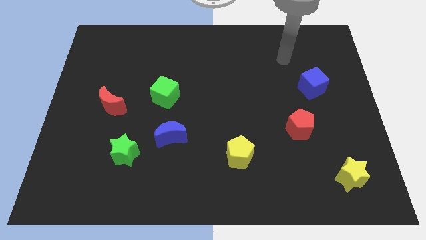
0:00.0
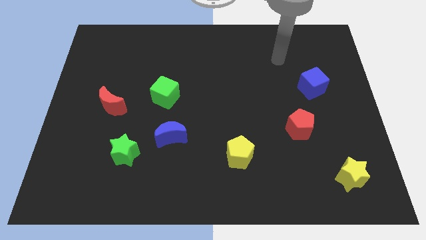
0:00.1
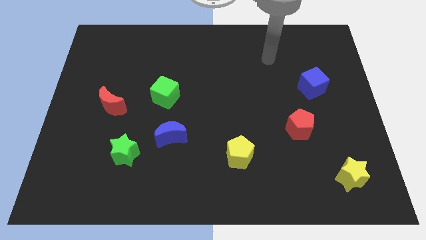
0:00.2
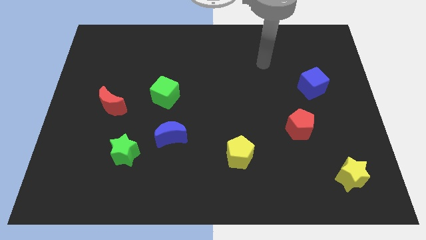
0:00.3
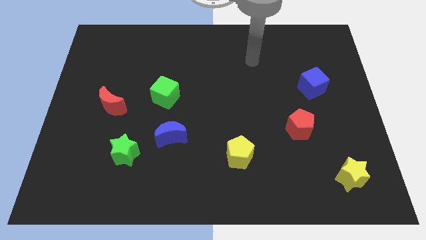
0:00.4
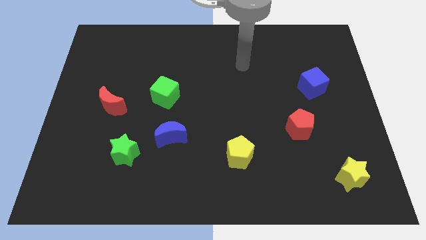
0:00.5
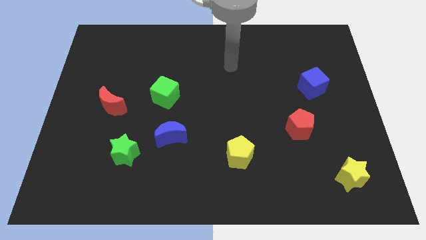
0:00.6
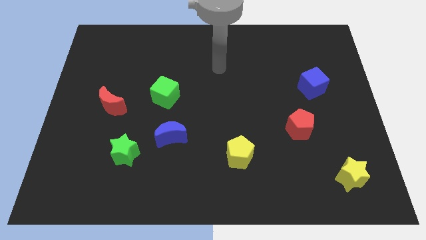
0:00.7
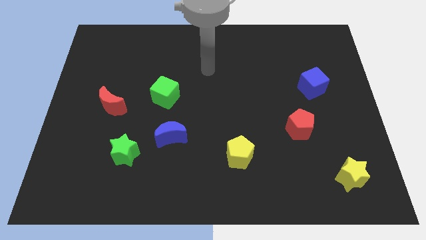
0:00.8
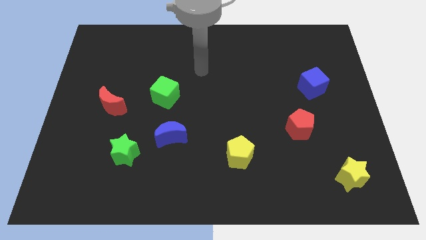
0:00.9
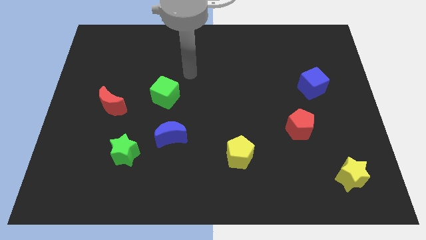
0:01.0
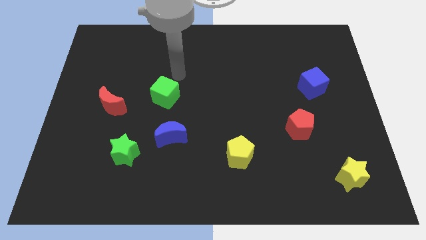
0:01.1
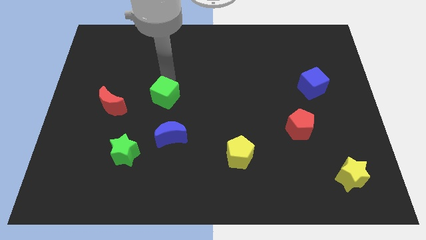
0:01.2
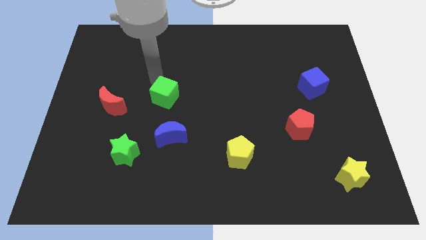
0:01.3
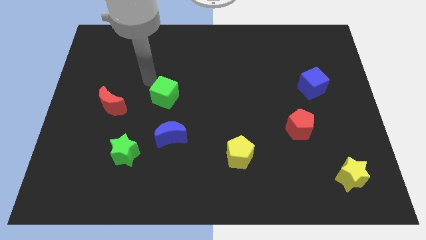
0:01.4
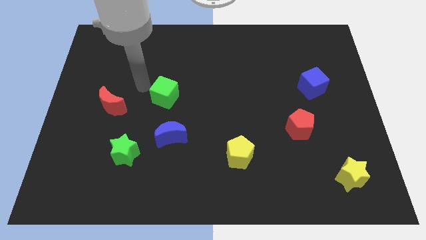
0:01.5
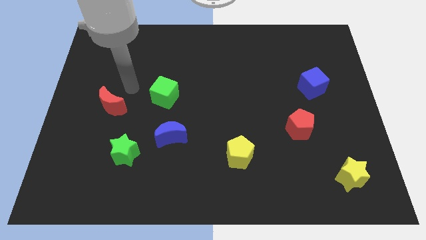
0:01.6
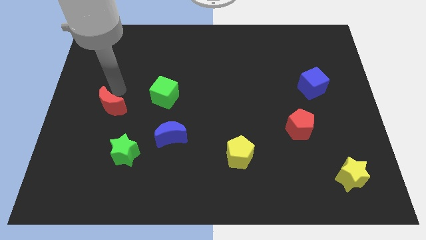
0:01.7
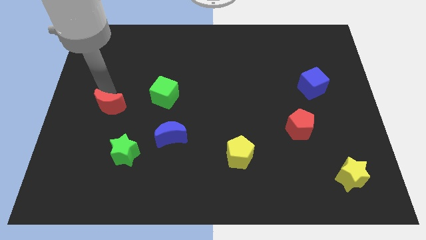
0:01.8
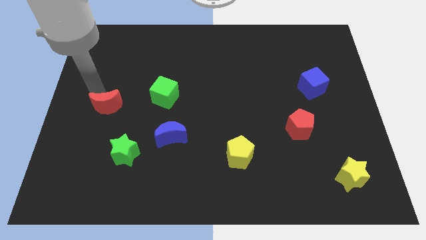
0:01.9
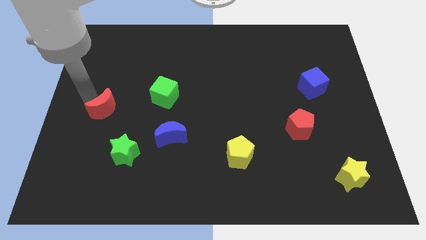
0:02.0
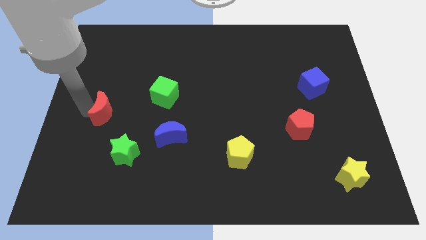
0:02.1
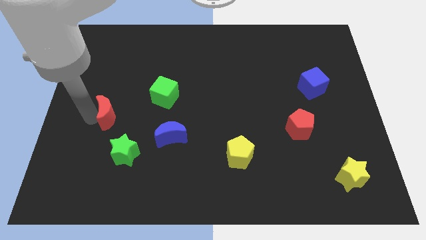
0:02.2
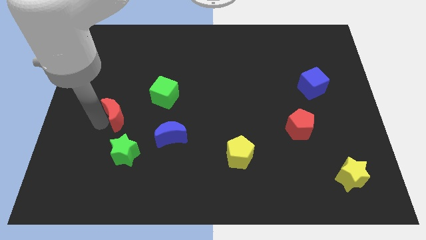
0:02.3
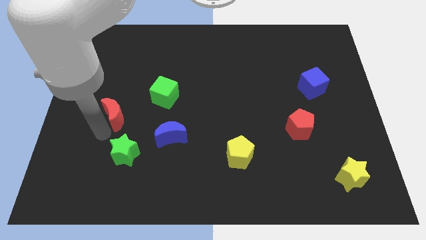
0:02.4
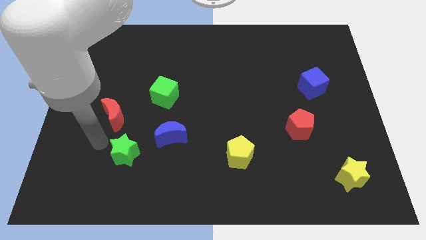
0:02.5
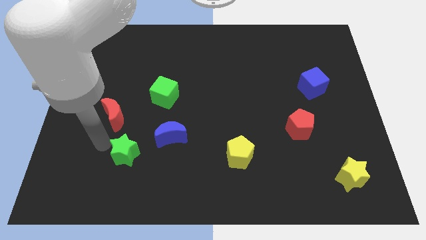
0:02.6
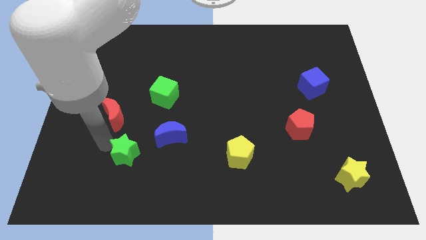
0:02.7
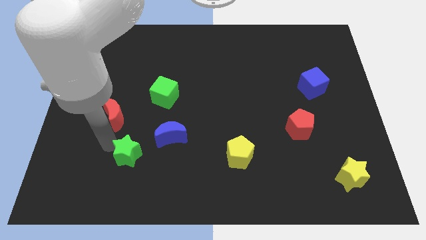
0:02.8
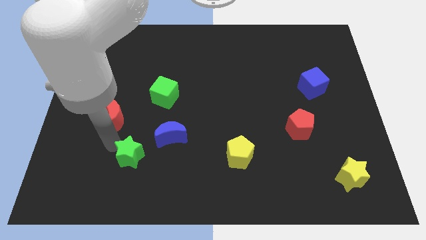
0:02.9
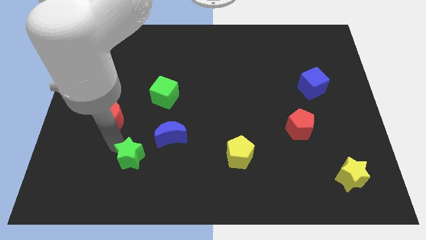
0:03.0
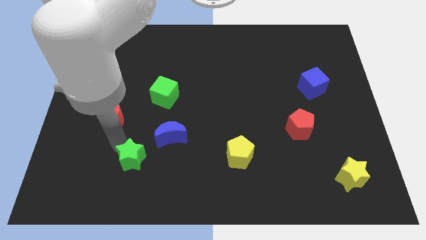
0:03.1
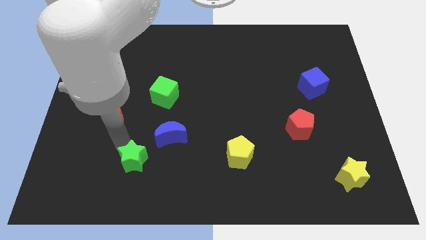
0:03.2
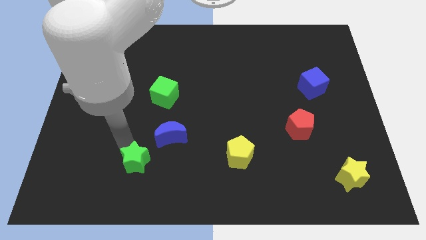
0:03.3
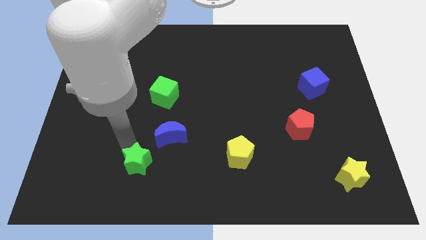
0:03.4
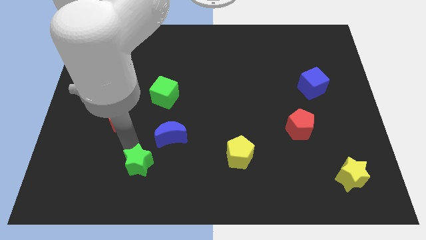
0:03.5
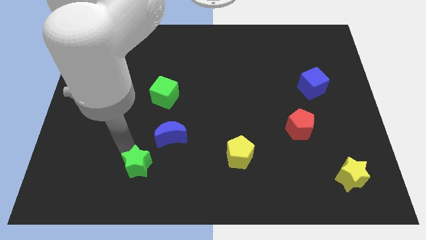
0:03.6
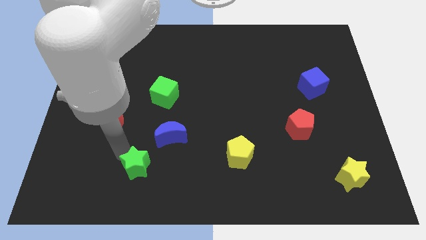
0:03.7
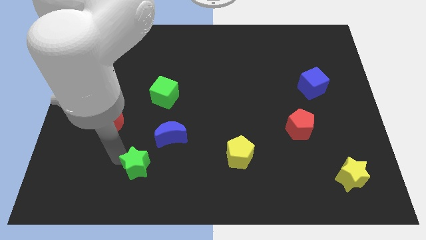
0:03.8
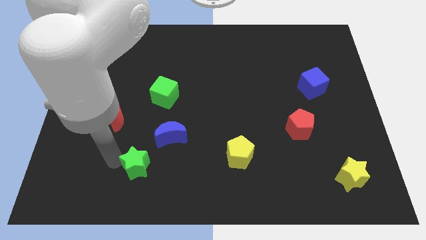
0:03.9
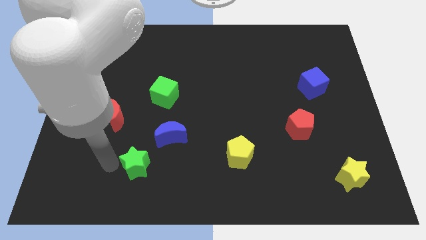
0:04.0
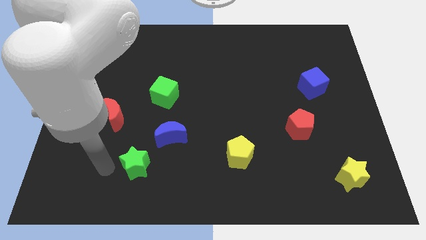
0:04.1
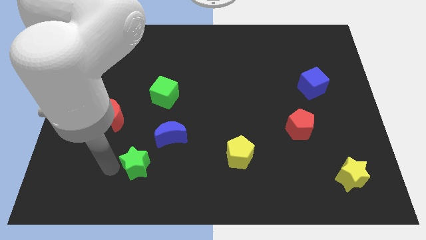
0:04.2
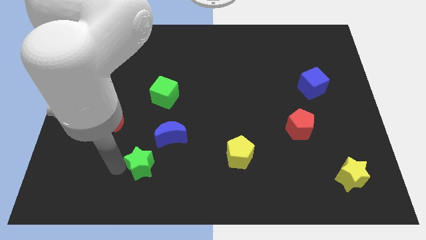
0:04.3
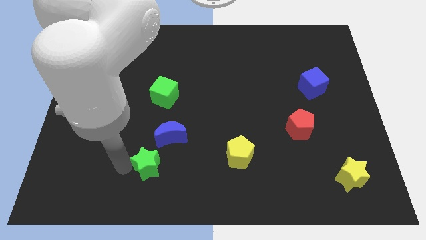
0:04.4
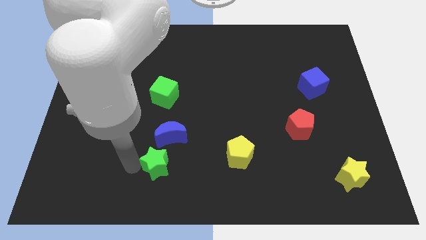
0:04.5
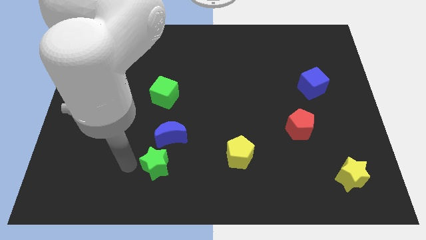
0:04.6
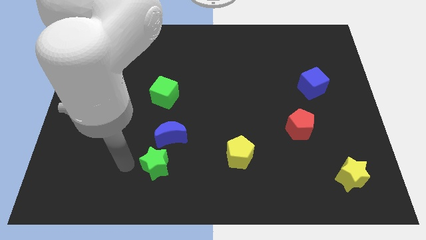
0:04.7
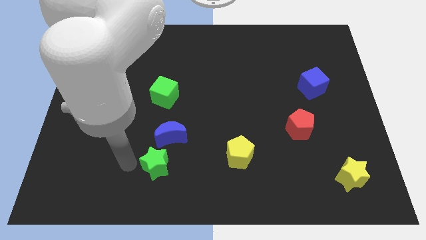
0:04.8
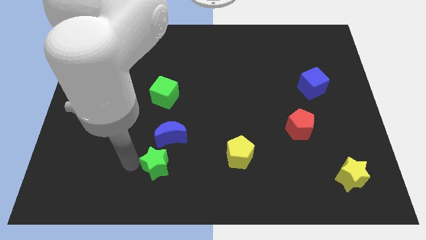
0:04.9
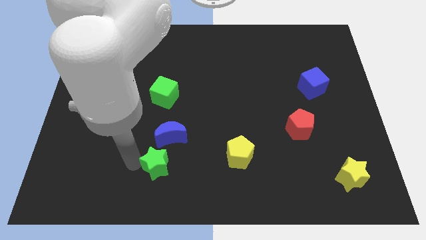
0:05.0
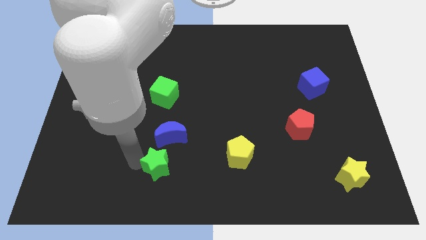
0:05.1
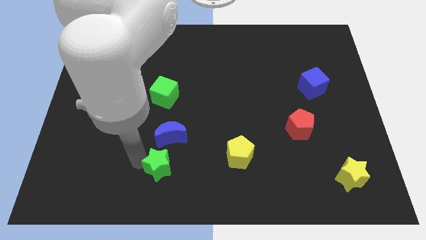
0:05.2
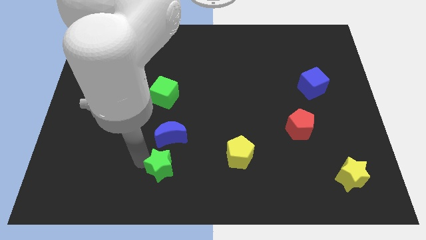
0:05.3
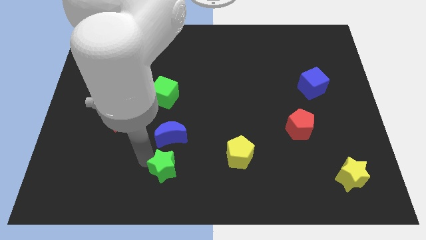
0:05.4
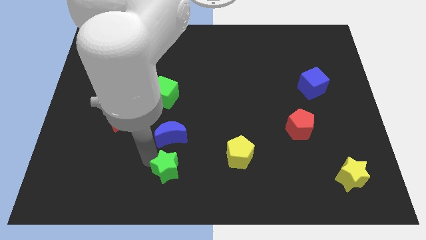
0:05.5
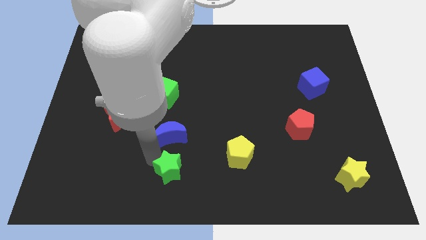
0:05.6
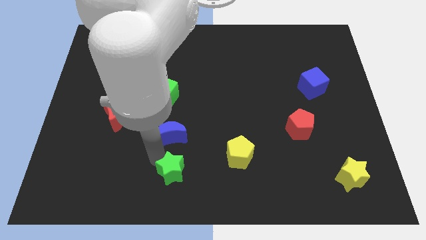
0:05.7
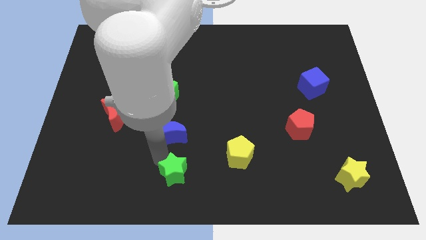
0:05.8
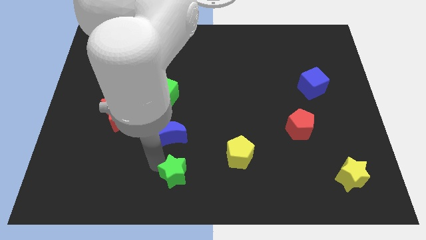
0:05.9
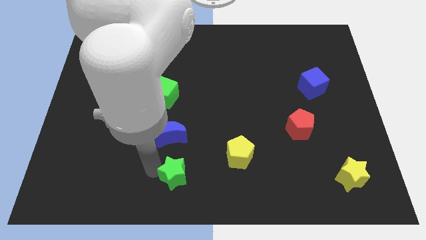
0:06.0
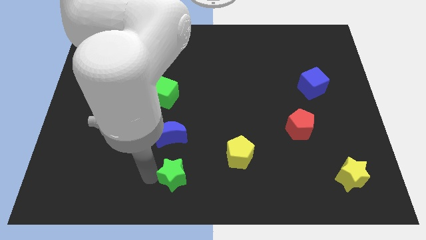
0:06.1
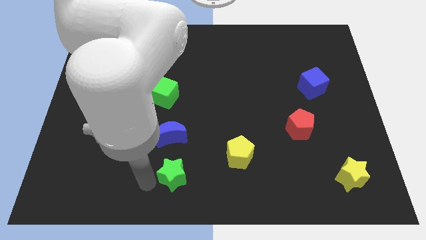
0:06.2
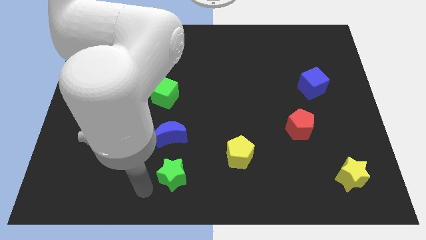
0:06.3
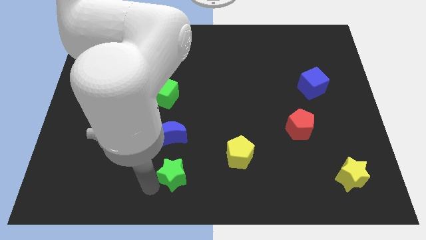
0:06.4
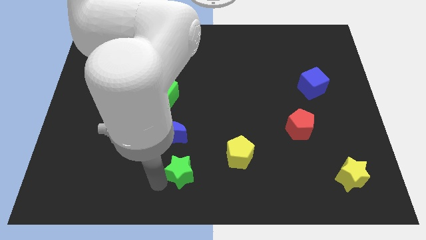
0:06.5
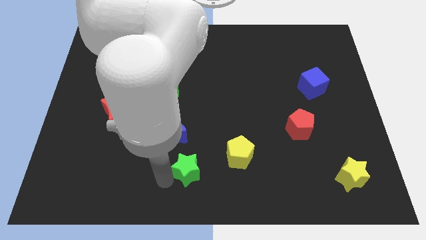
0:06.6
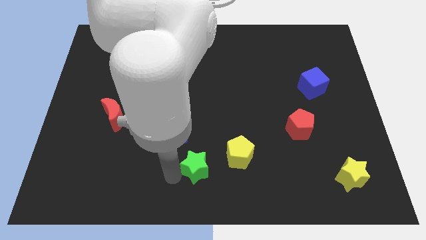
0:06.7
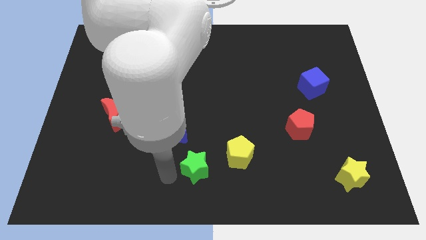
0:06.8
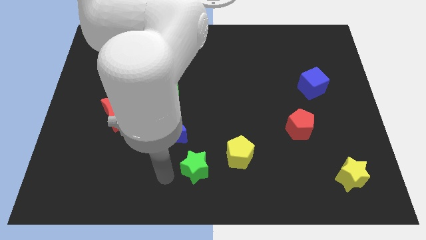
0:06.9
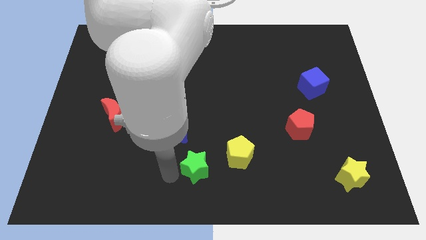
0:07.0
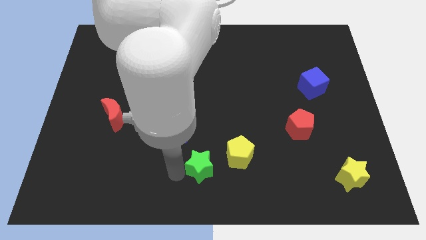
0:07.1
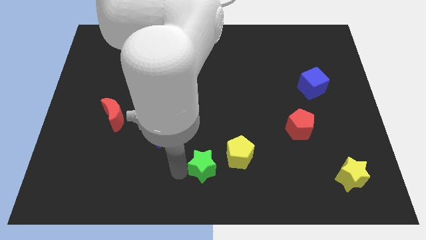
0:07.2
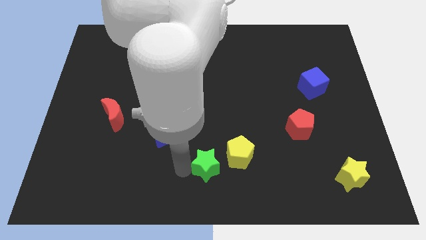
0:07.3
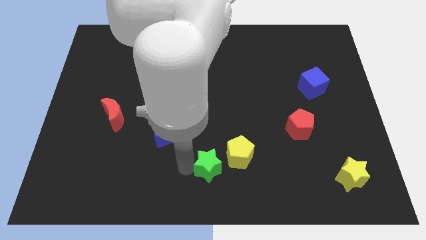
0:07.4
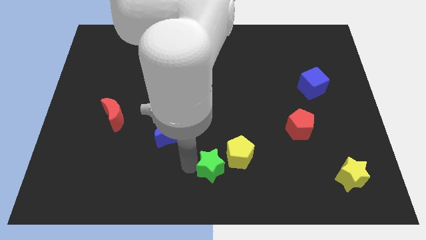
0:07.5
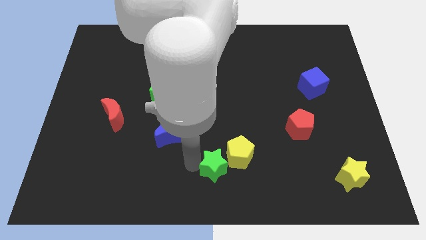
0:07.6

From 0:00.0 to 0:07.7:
put the green star next to the yellow pentagon

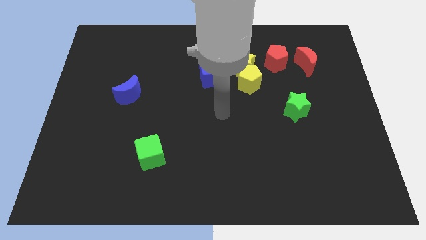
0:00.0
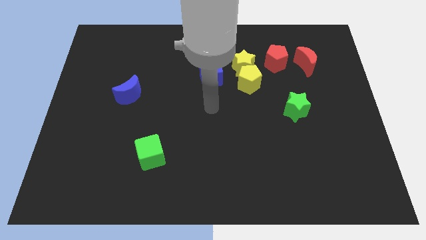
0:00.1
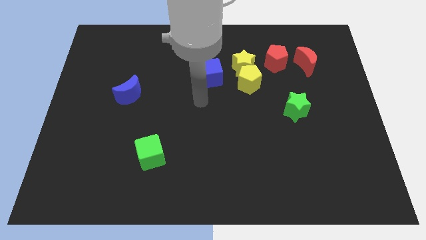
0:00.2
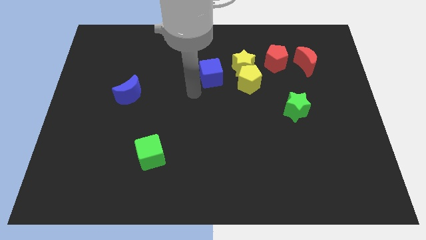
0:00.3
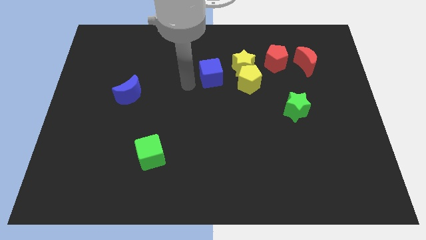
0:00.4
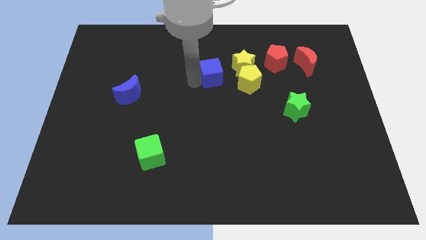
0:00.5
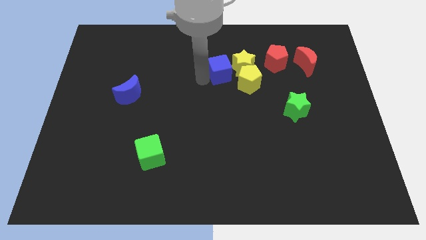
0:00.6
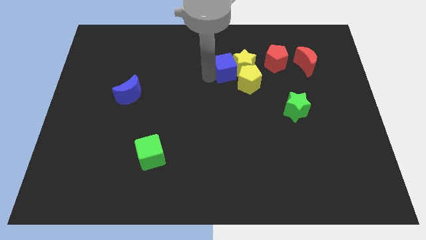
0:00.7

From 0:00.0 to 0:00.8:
push the blue cube towards the yellow star
